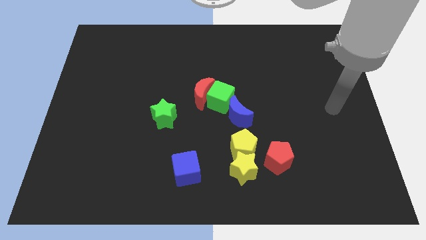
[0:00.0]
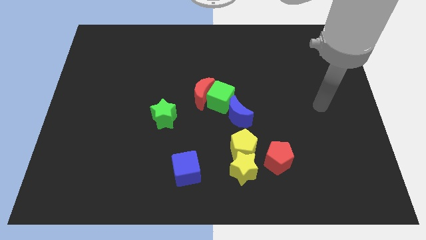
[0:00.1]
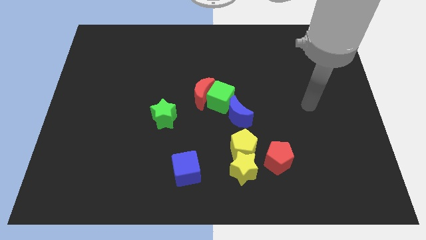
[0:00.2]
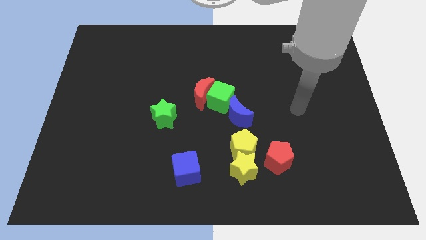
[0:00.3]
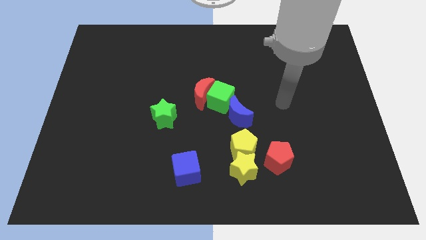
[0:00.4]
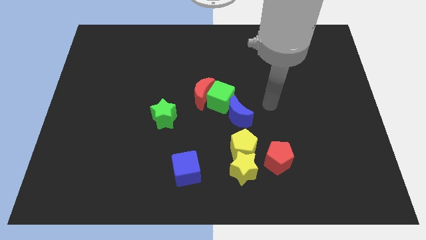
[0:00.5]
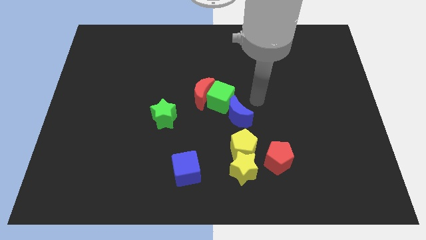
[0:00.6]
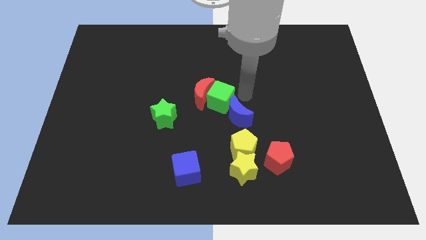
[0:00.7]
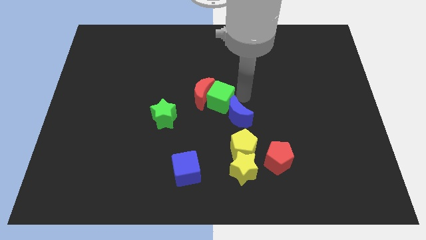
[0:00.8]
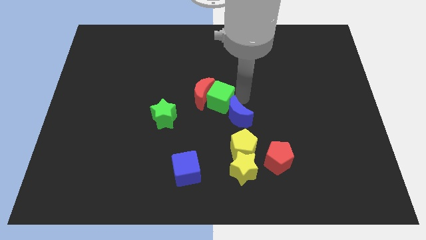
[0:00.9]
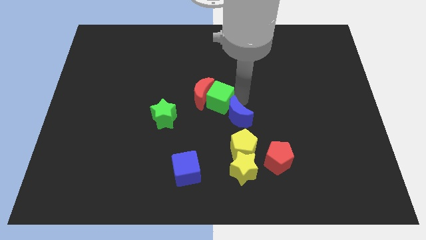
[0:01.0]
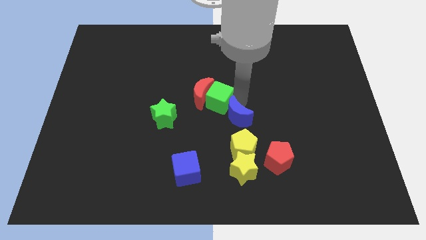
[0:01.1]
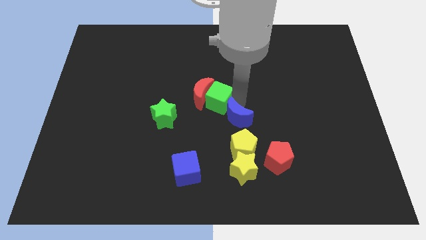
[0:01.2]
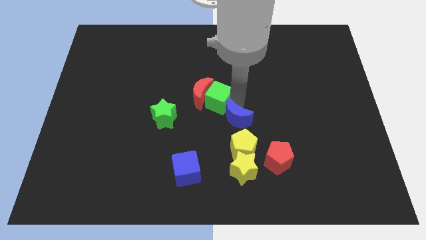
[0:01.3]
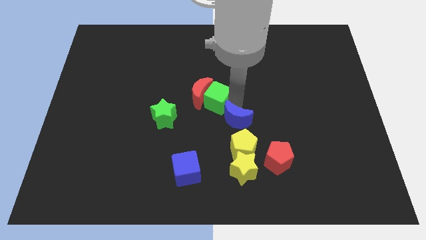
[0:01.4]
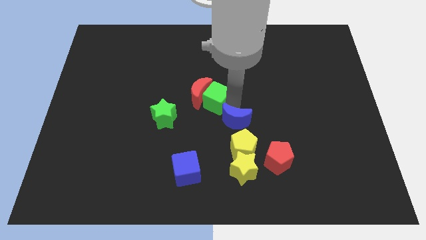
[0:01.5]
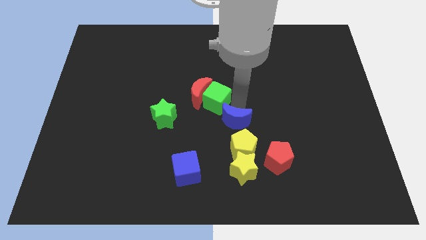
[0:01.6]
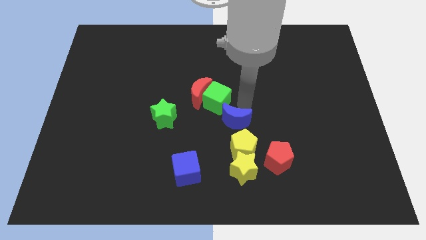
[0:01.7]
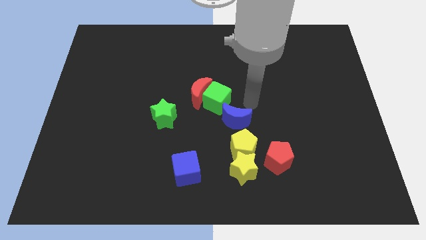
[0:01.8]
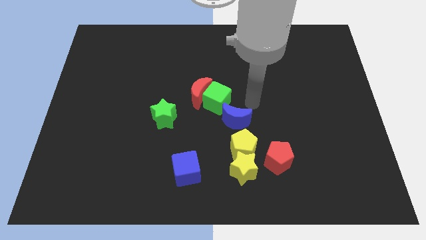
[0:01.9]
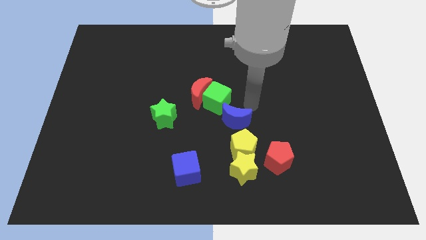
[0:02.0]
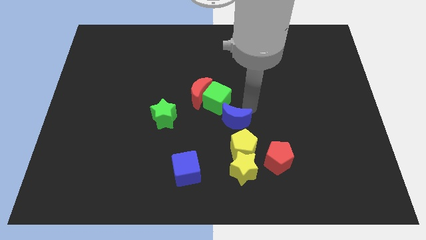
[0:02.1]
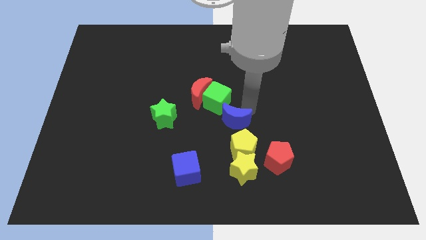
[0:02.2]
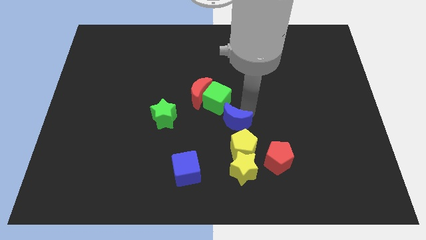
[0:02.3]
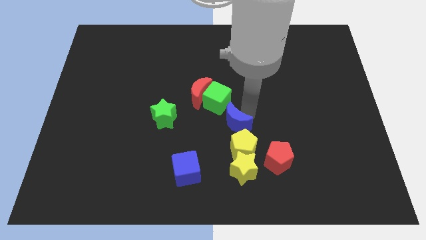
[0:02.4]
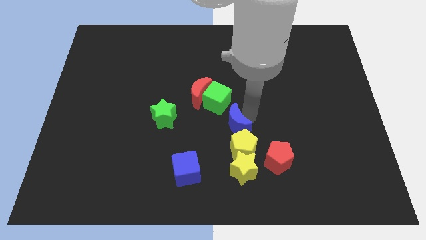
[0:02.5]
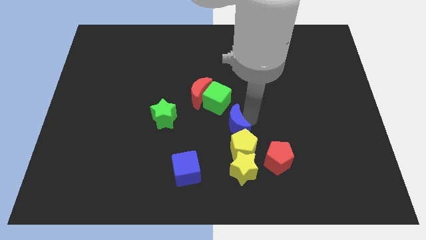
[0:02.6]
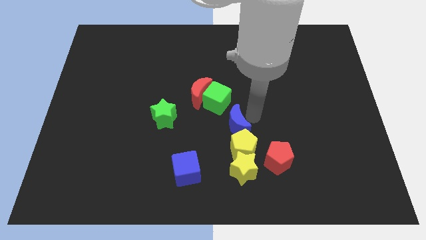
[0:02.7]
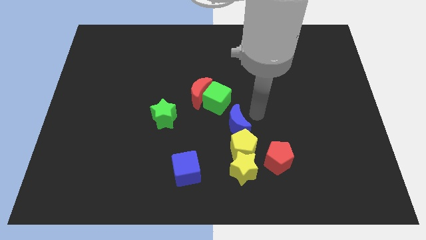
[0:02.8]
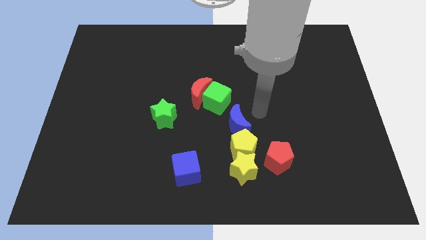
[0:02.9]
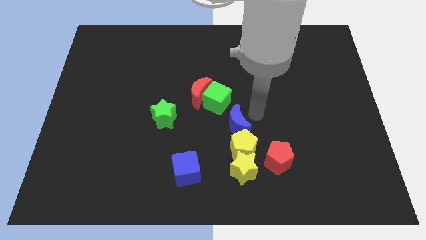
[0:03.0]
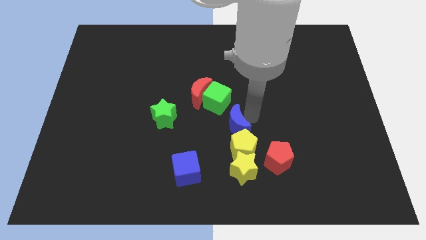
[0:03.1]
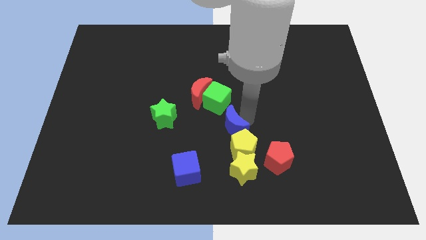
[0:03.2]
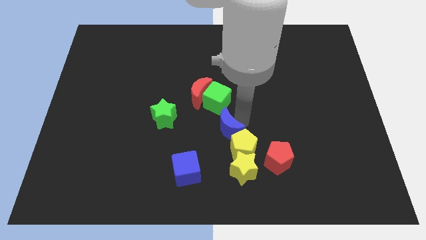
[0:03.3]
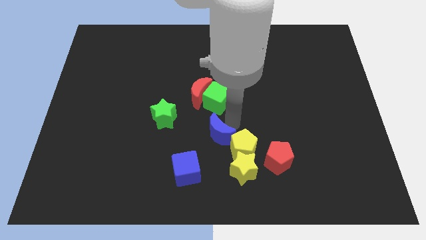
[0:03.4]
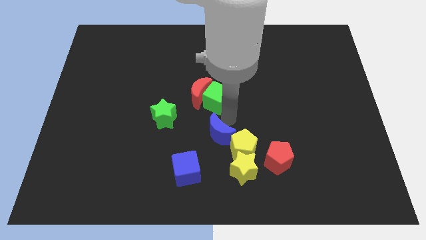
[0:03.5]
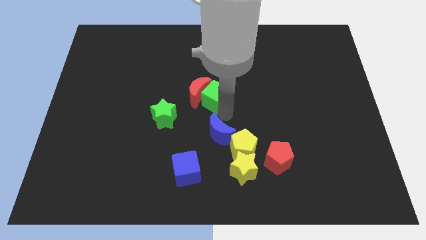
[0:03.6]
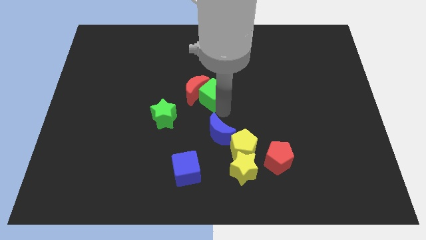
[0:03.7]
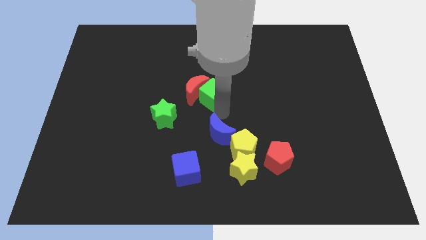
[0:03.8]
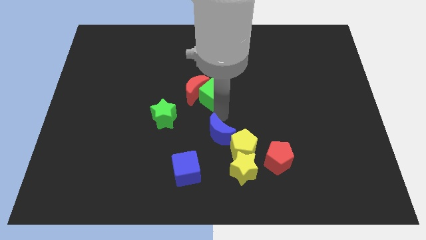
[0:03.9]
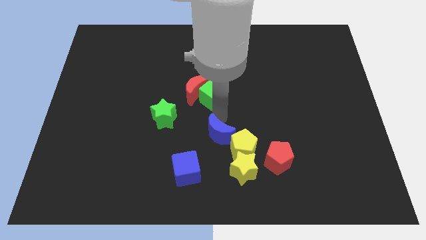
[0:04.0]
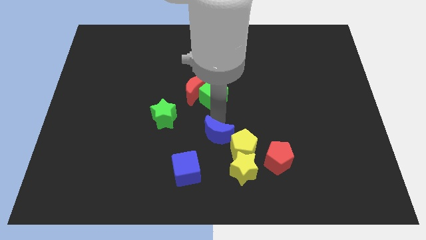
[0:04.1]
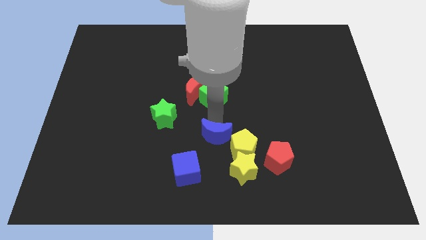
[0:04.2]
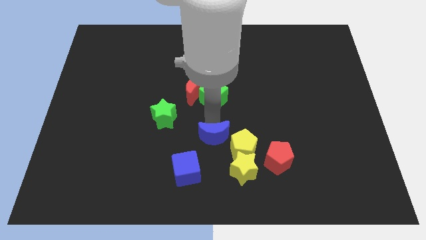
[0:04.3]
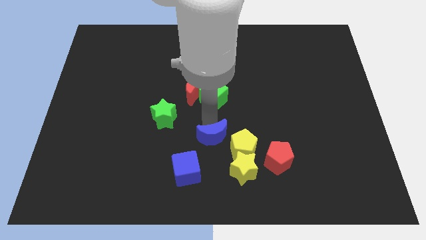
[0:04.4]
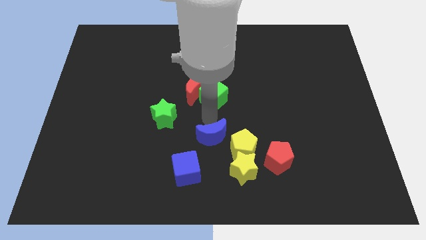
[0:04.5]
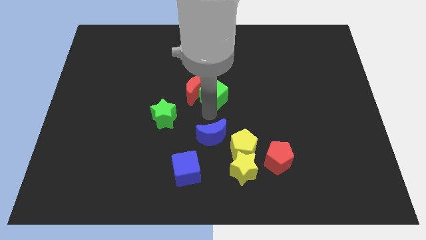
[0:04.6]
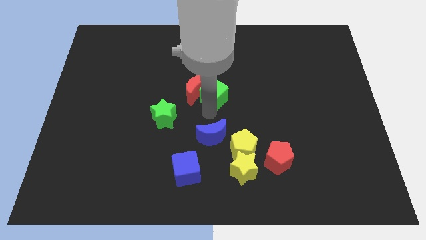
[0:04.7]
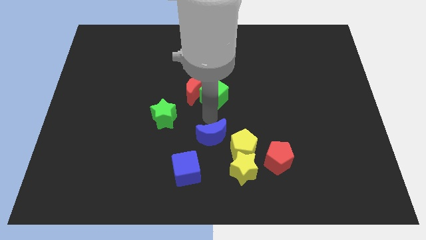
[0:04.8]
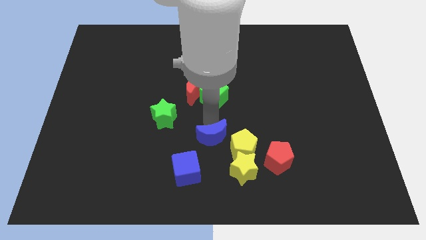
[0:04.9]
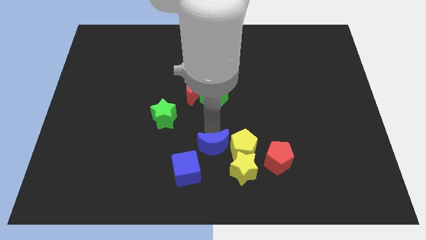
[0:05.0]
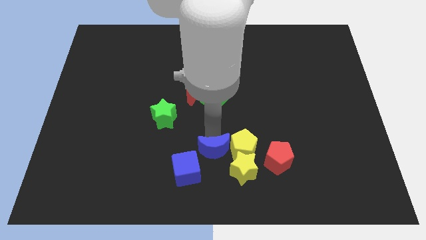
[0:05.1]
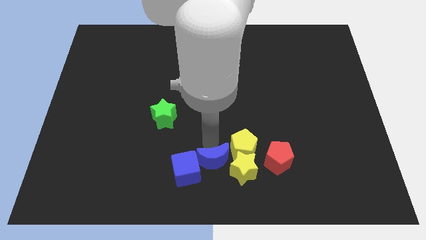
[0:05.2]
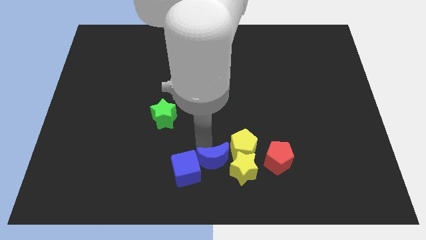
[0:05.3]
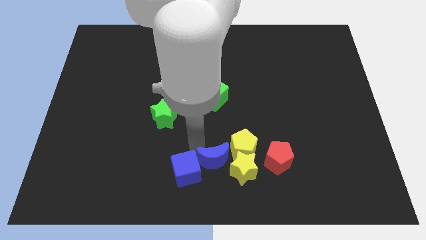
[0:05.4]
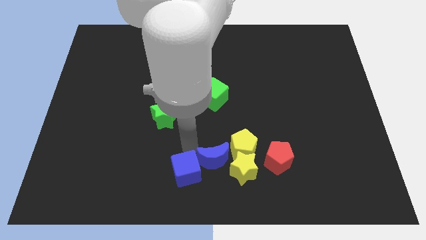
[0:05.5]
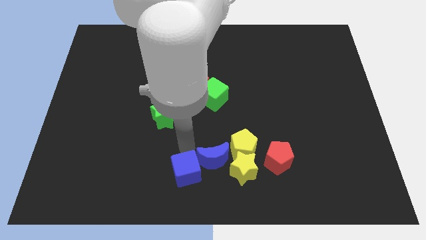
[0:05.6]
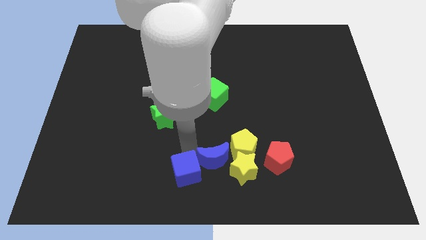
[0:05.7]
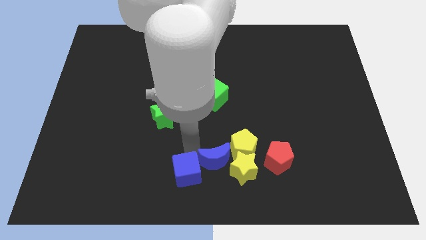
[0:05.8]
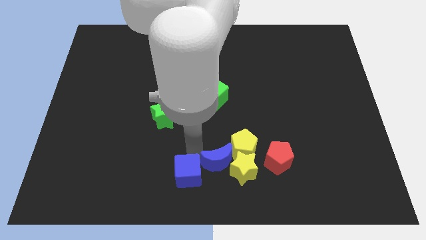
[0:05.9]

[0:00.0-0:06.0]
slide the blue moon close to the yellow star
